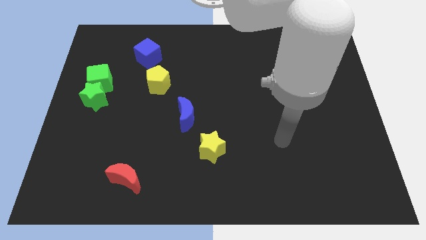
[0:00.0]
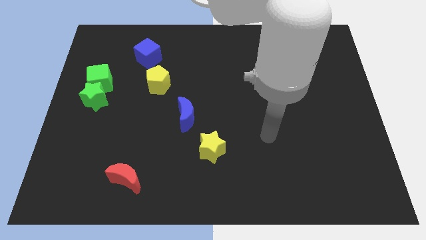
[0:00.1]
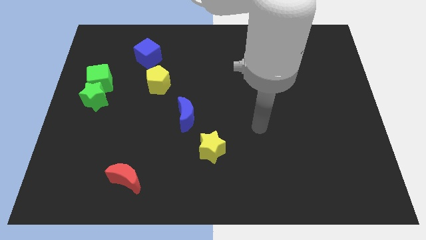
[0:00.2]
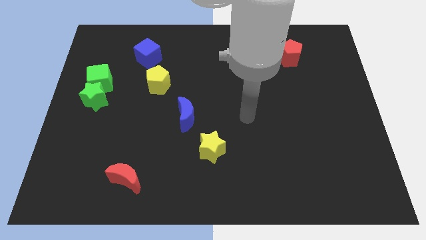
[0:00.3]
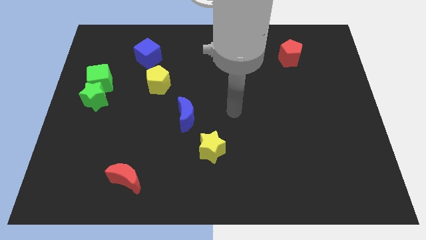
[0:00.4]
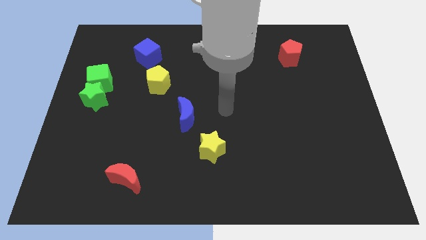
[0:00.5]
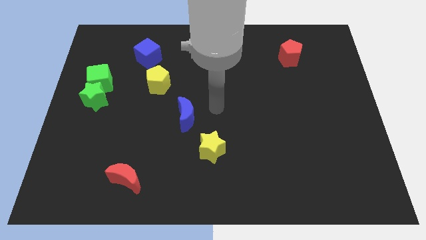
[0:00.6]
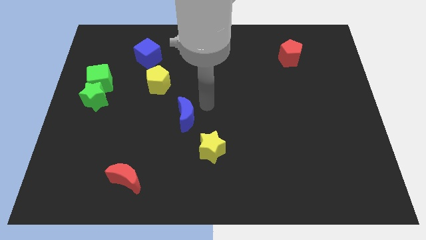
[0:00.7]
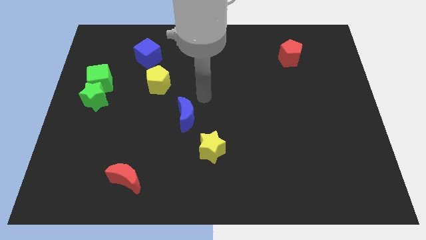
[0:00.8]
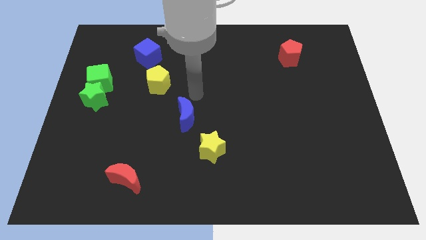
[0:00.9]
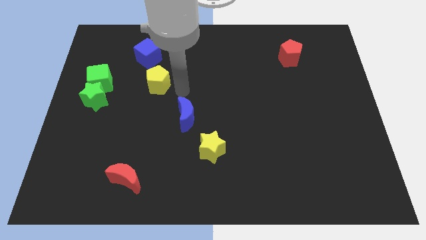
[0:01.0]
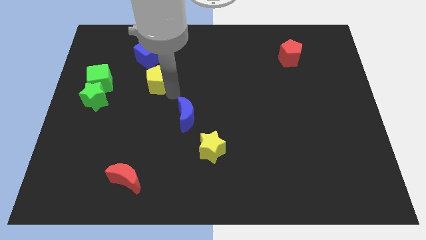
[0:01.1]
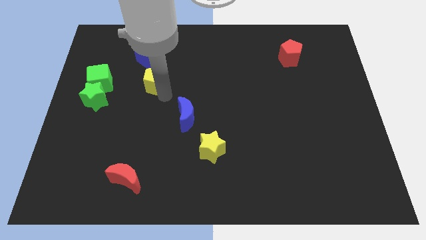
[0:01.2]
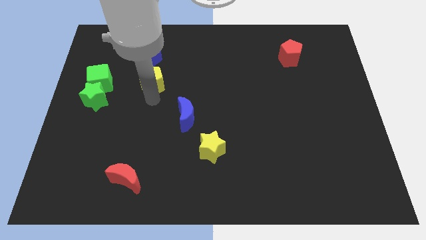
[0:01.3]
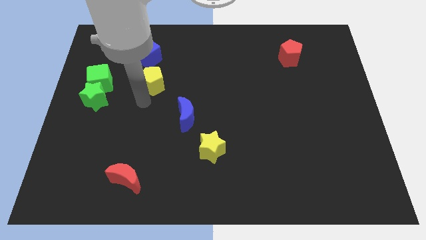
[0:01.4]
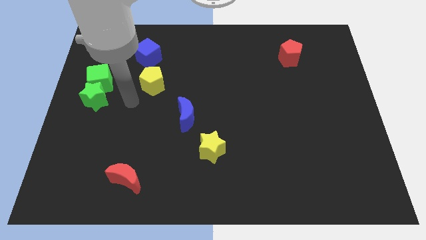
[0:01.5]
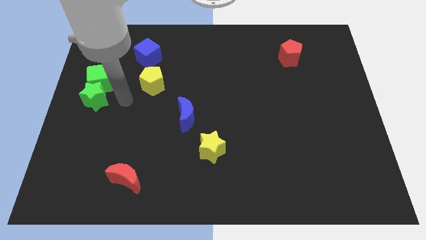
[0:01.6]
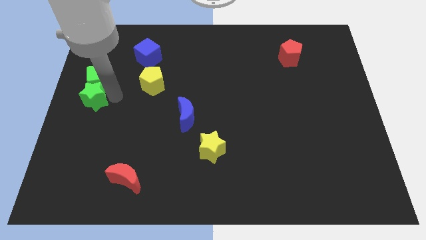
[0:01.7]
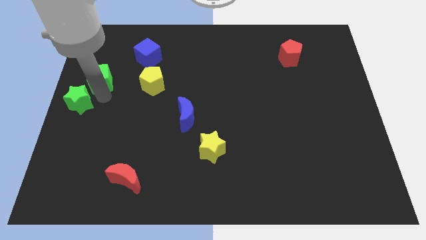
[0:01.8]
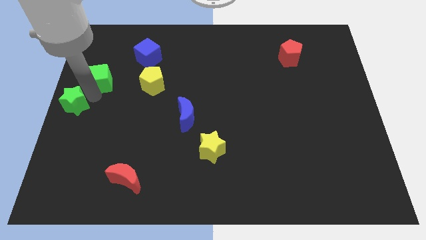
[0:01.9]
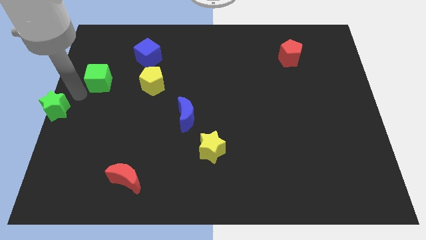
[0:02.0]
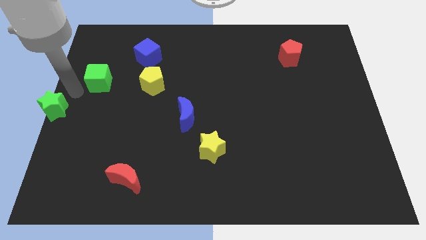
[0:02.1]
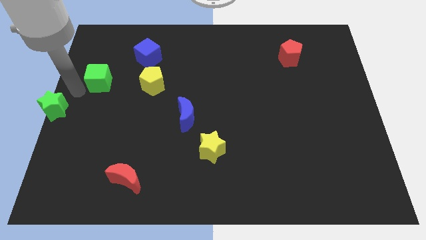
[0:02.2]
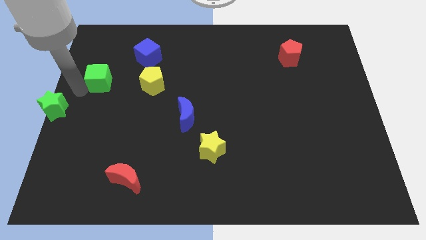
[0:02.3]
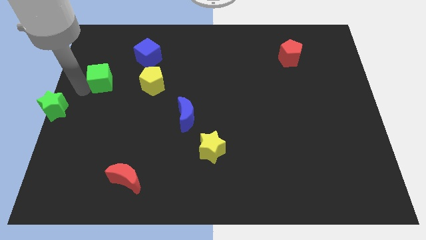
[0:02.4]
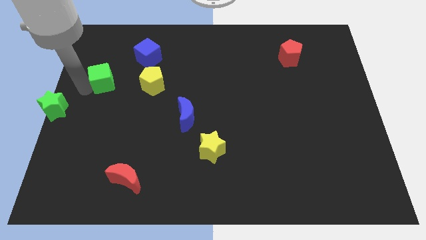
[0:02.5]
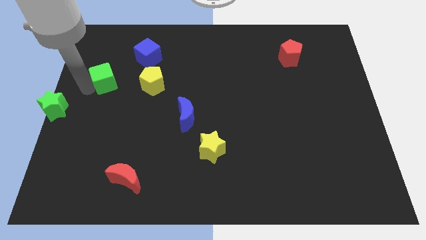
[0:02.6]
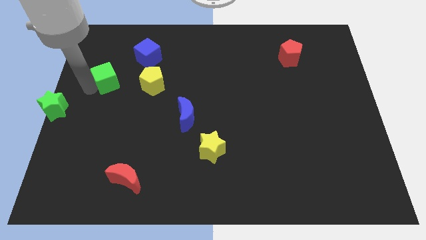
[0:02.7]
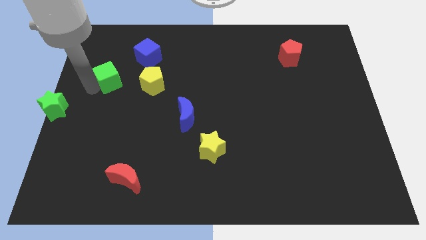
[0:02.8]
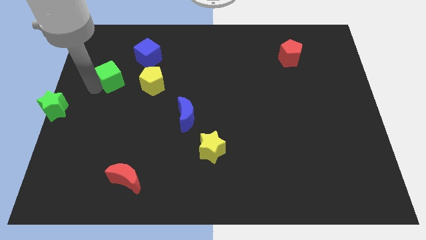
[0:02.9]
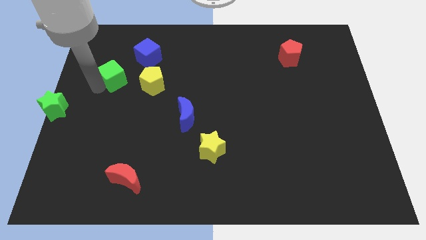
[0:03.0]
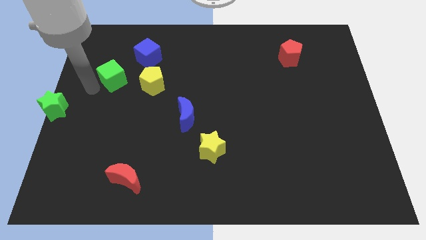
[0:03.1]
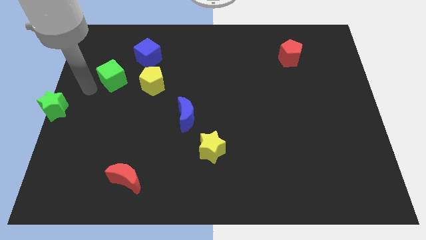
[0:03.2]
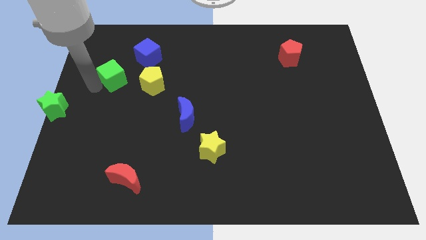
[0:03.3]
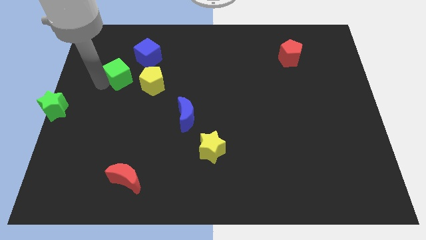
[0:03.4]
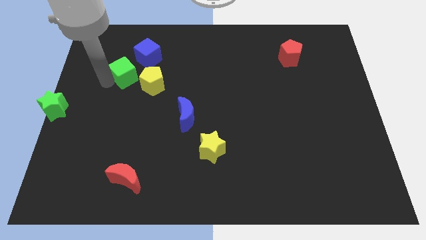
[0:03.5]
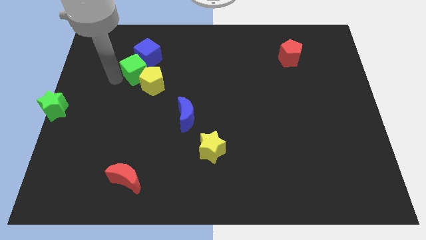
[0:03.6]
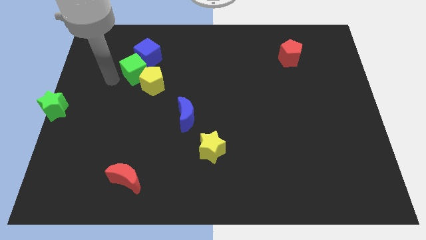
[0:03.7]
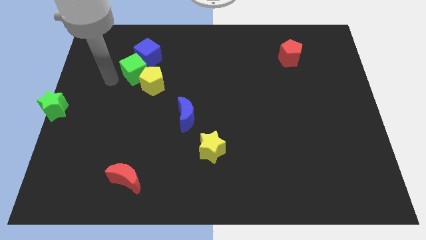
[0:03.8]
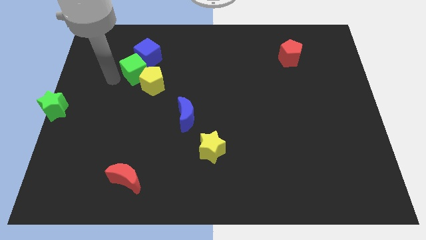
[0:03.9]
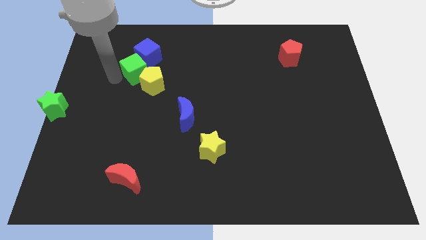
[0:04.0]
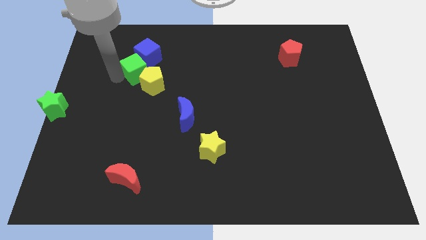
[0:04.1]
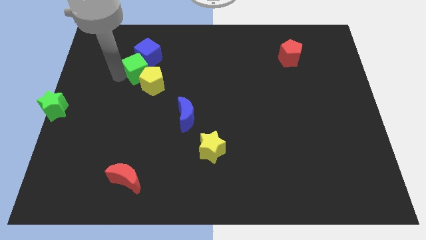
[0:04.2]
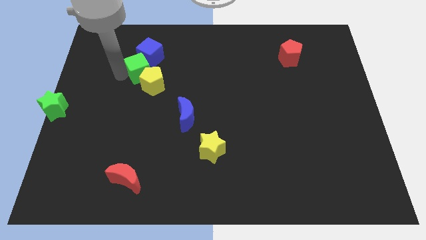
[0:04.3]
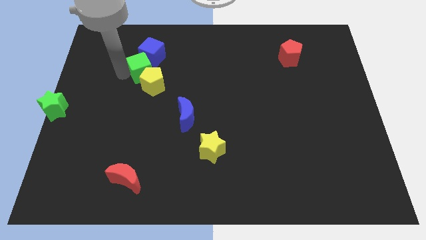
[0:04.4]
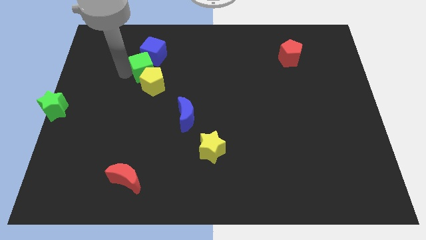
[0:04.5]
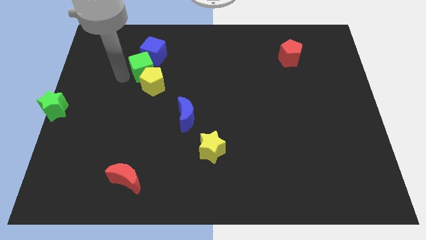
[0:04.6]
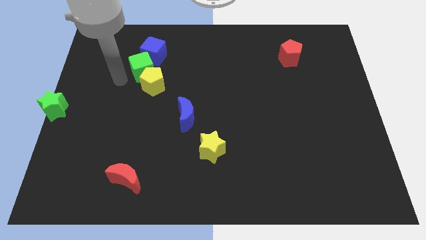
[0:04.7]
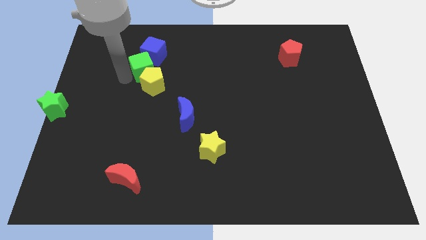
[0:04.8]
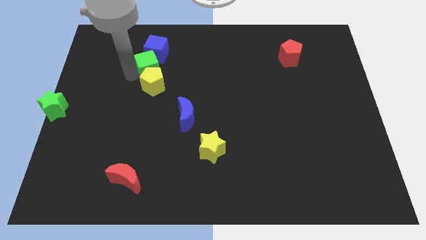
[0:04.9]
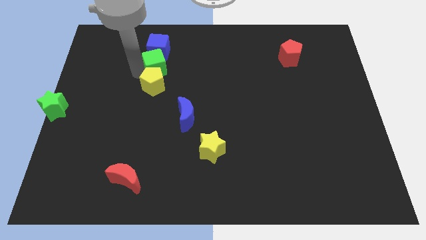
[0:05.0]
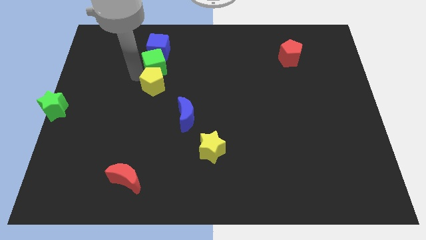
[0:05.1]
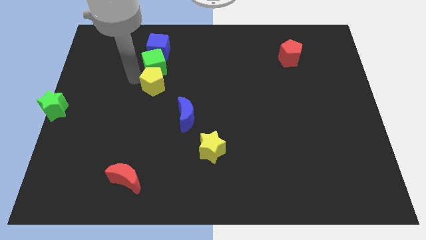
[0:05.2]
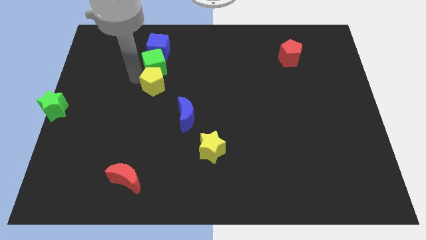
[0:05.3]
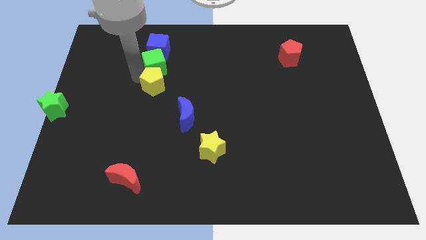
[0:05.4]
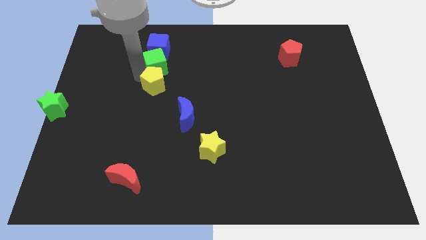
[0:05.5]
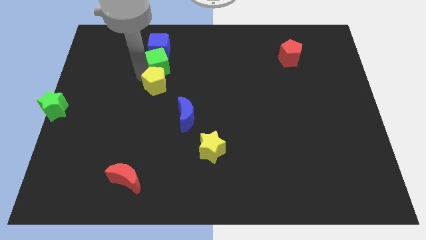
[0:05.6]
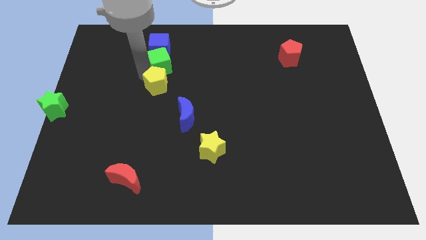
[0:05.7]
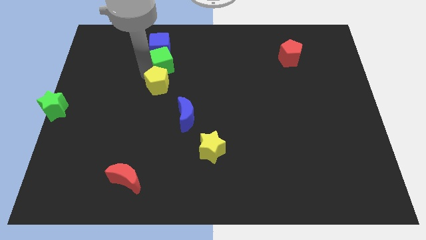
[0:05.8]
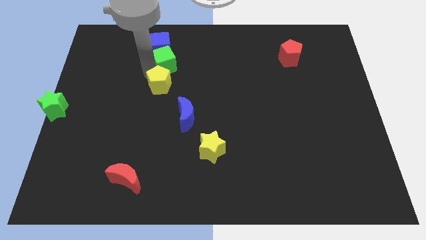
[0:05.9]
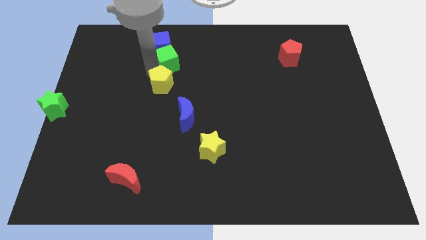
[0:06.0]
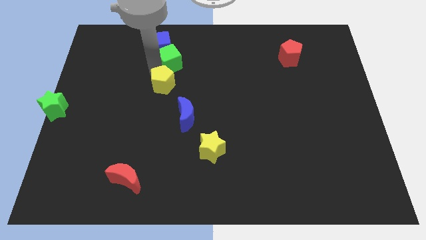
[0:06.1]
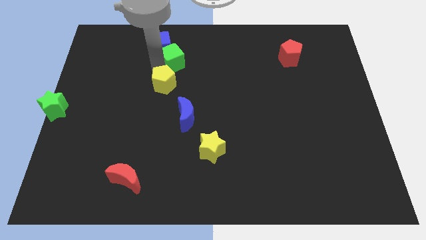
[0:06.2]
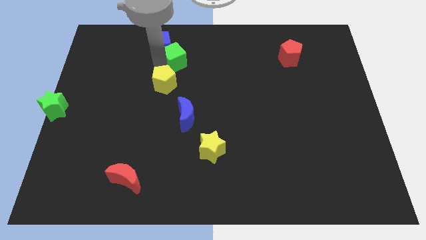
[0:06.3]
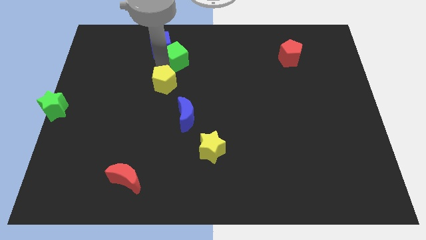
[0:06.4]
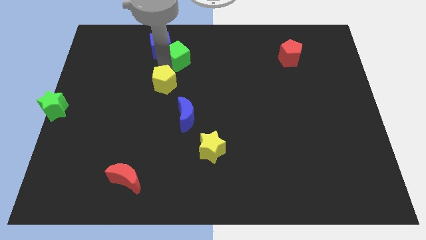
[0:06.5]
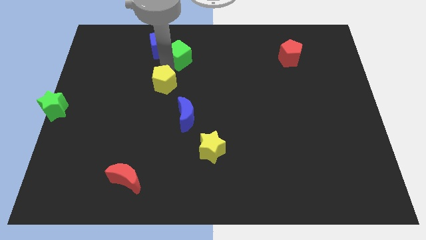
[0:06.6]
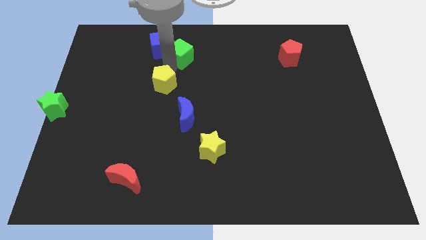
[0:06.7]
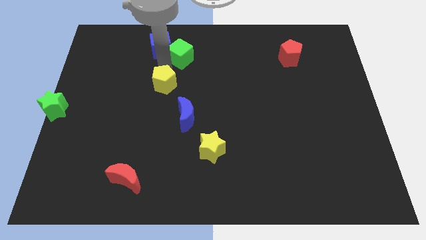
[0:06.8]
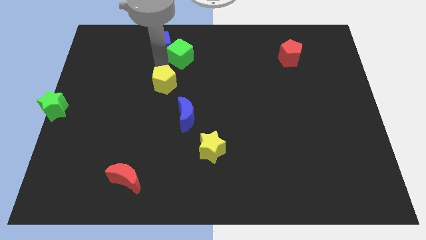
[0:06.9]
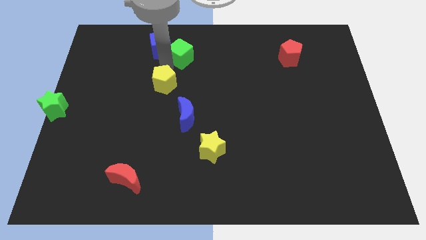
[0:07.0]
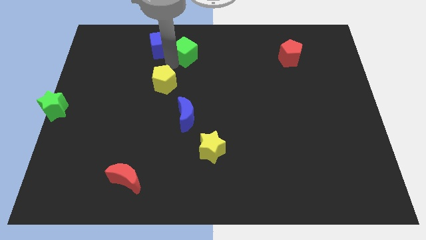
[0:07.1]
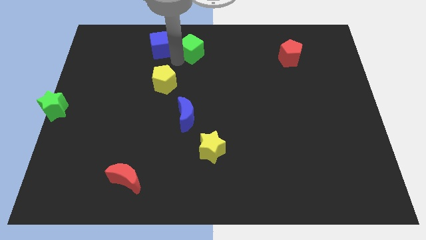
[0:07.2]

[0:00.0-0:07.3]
move the green cube to the top side
